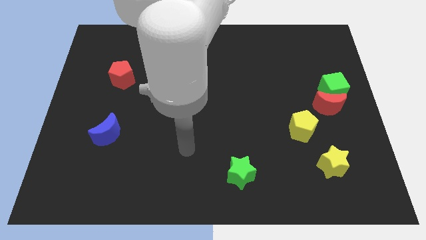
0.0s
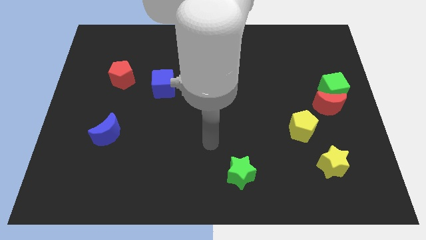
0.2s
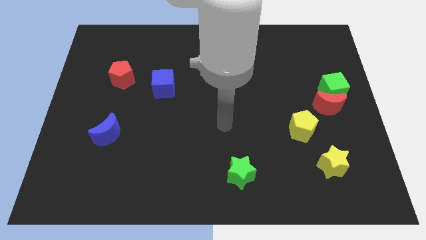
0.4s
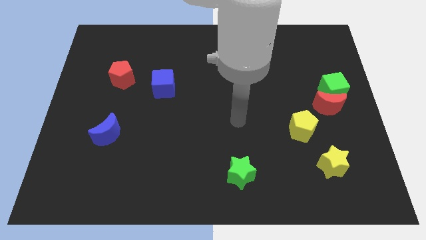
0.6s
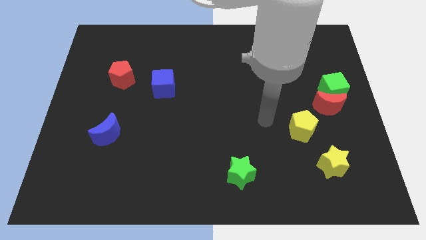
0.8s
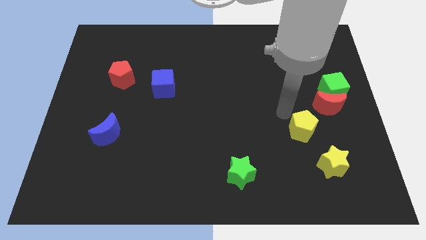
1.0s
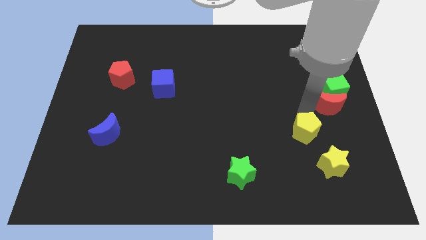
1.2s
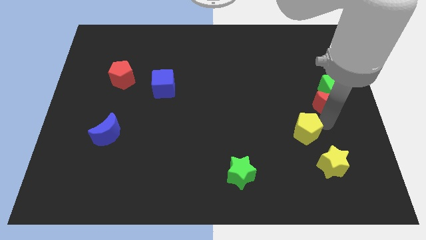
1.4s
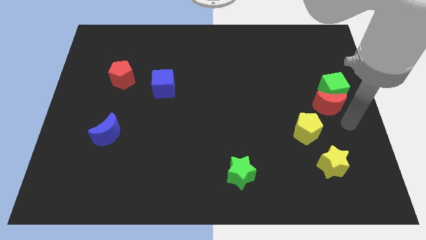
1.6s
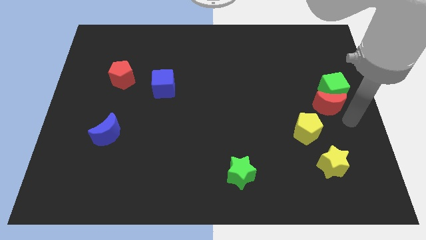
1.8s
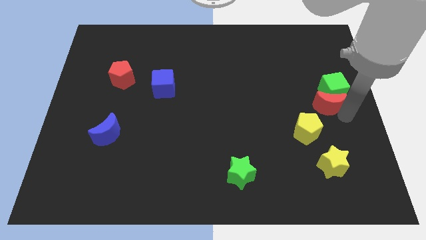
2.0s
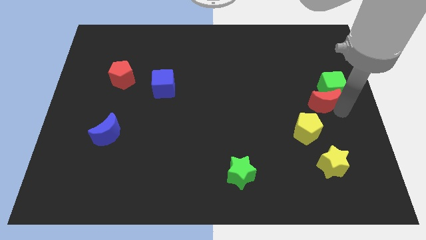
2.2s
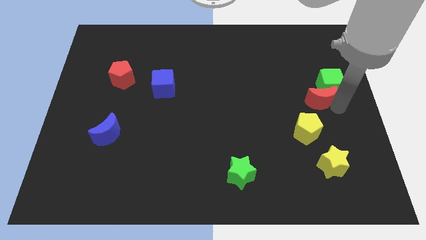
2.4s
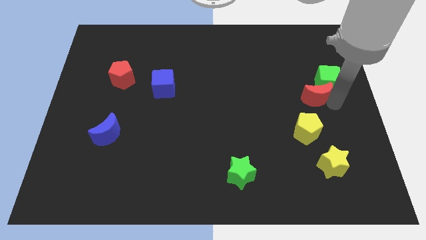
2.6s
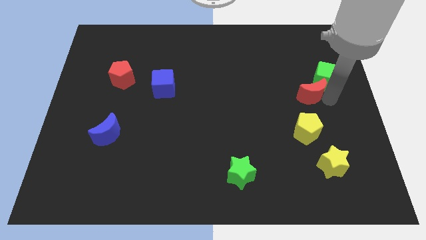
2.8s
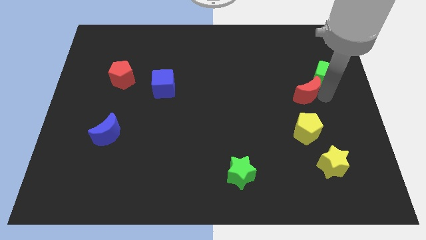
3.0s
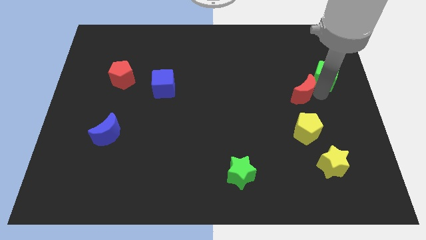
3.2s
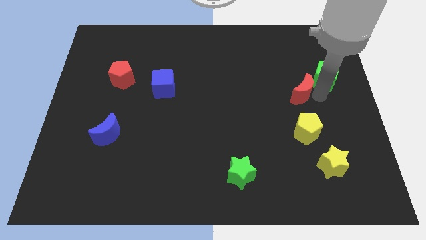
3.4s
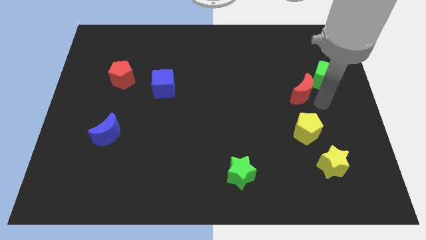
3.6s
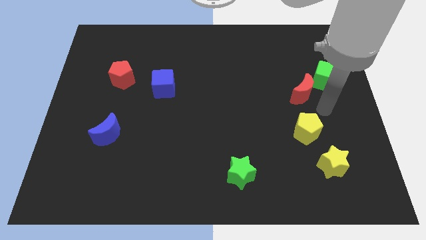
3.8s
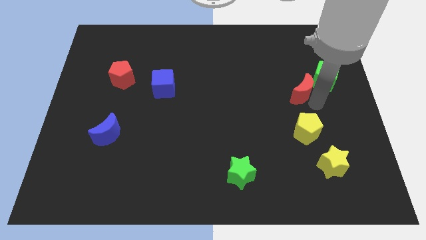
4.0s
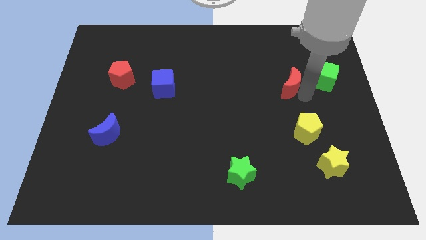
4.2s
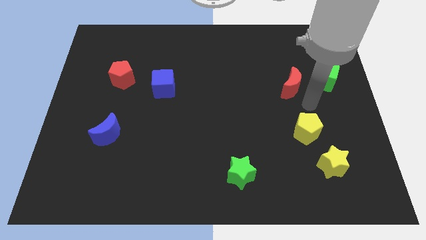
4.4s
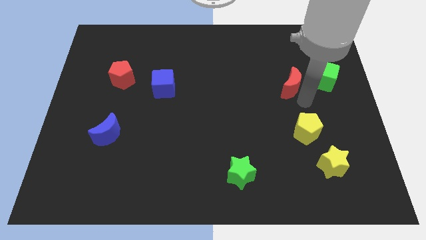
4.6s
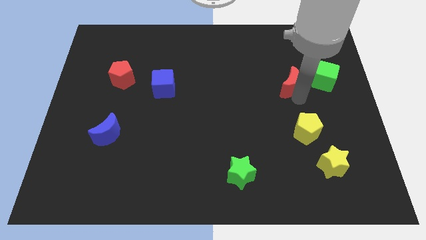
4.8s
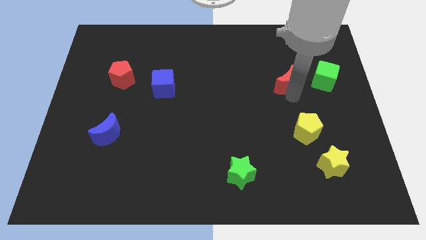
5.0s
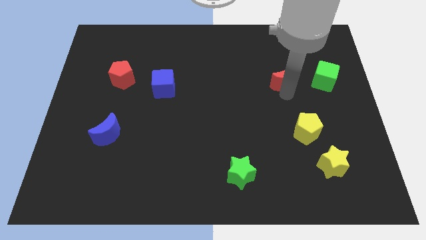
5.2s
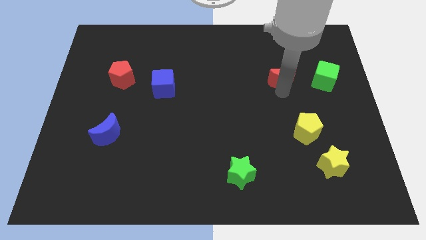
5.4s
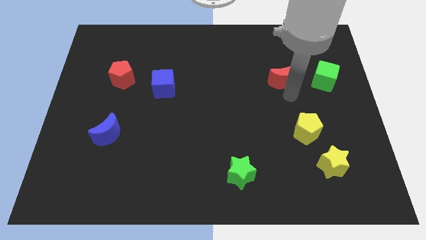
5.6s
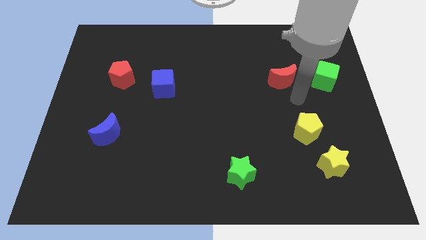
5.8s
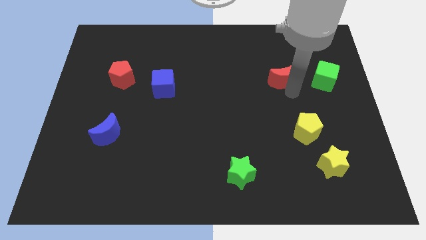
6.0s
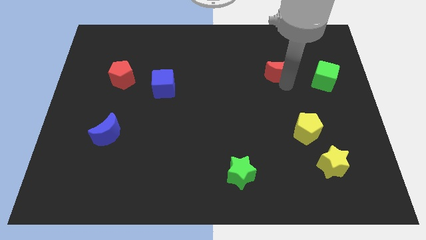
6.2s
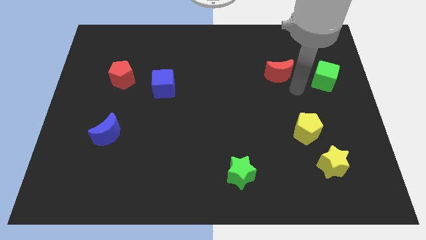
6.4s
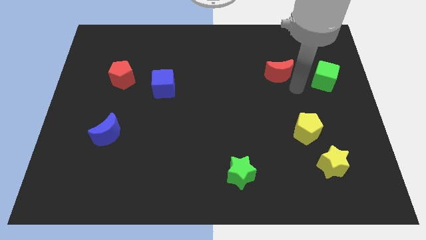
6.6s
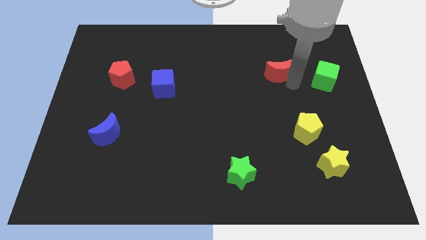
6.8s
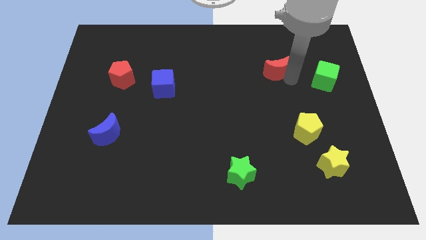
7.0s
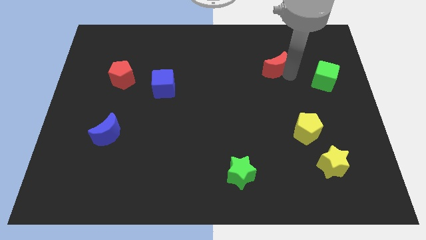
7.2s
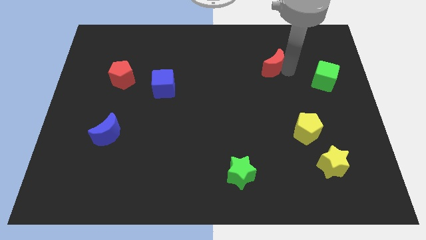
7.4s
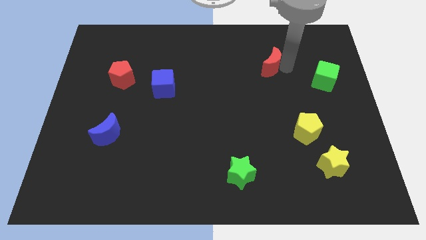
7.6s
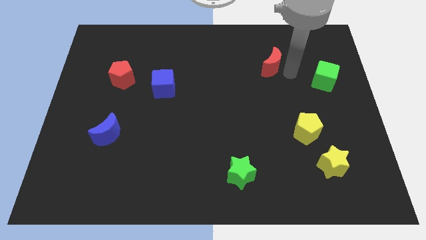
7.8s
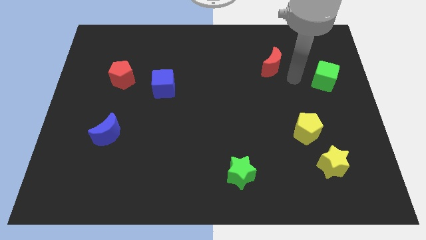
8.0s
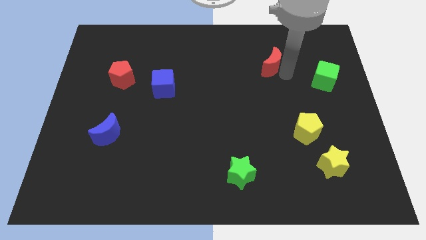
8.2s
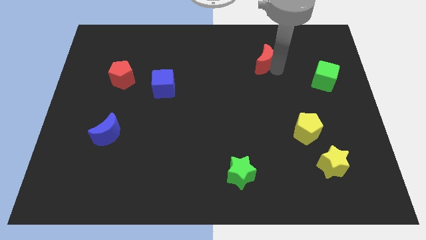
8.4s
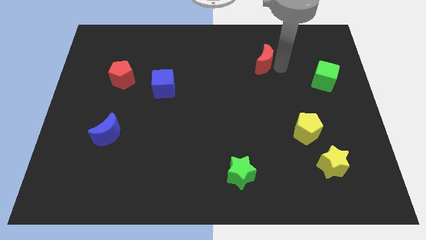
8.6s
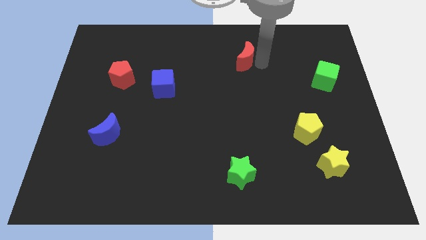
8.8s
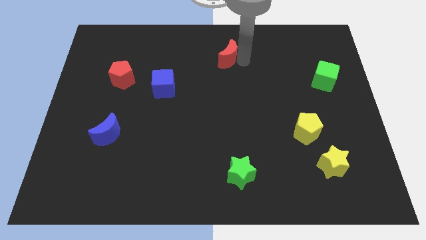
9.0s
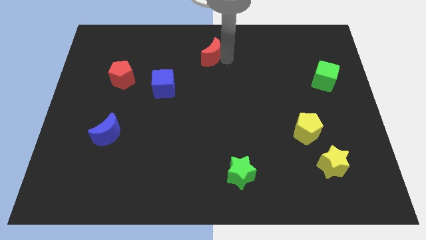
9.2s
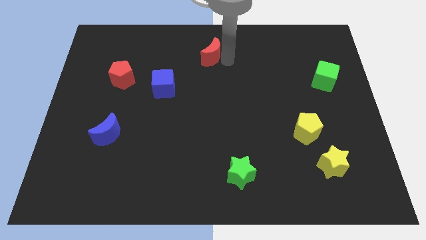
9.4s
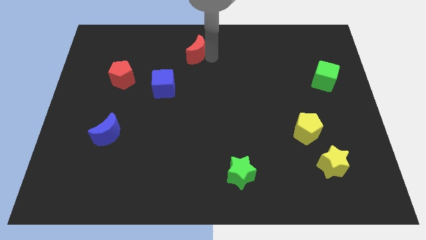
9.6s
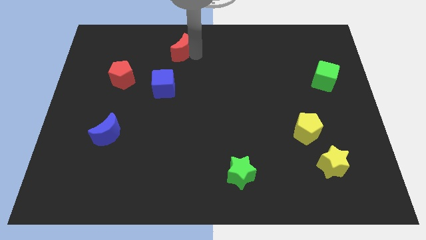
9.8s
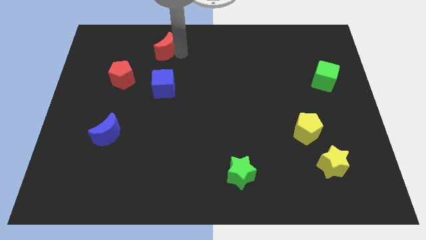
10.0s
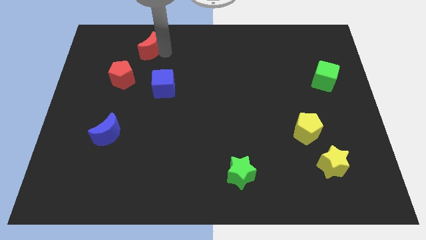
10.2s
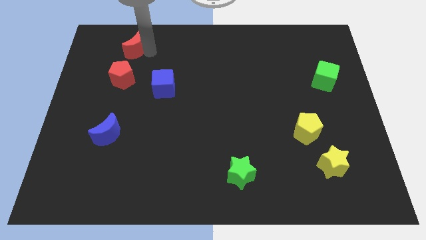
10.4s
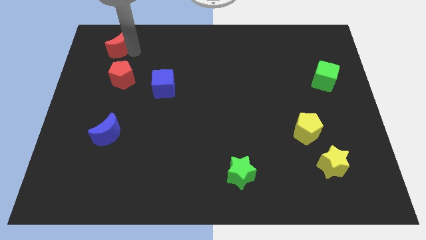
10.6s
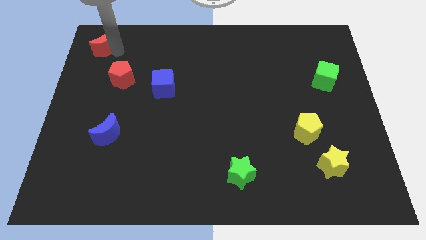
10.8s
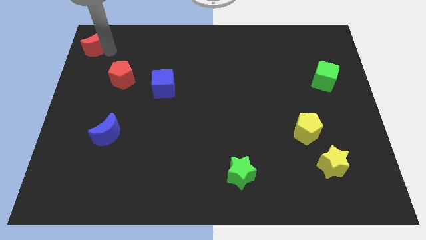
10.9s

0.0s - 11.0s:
move the red moon to the top left

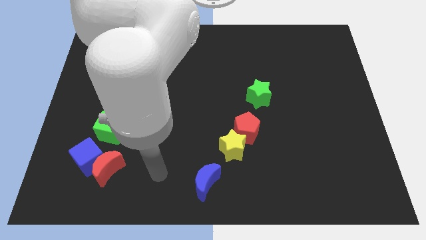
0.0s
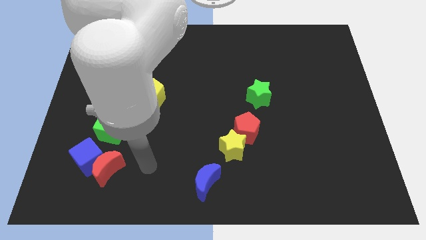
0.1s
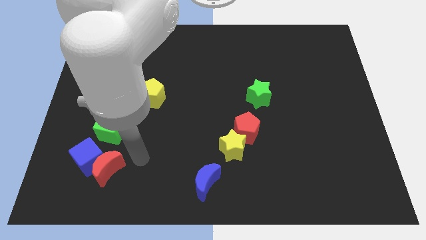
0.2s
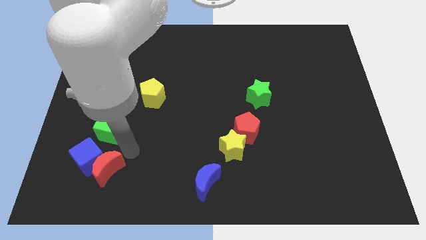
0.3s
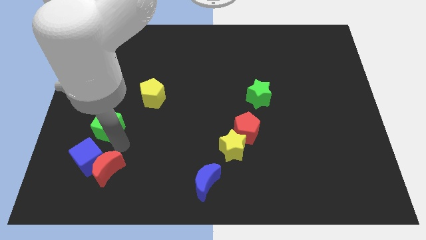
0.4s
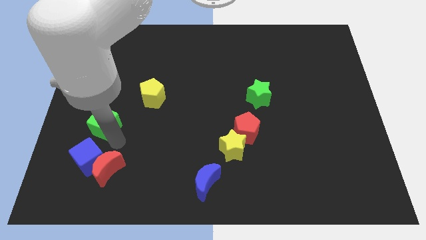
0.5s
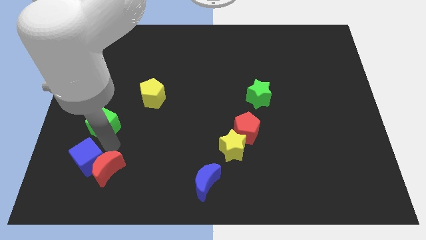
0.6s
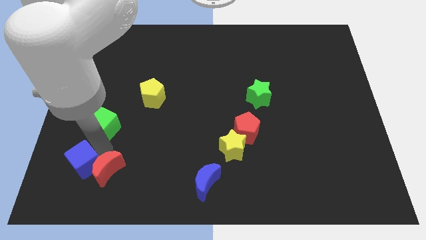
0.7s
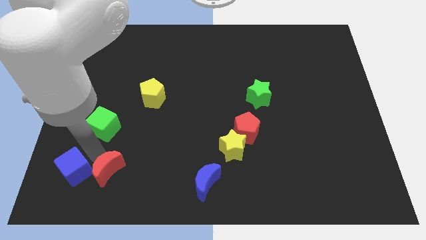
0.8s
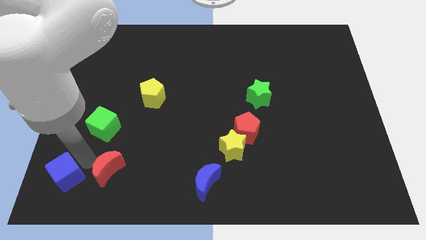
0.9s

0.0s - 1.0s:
move the blue cube to the bottom left of the board
